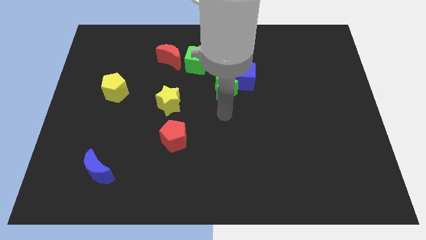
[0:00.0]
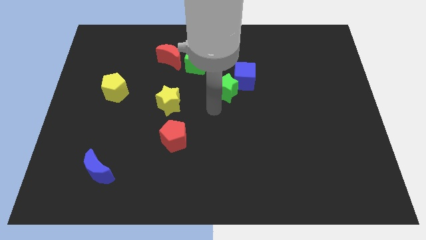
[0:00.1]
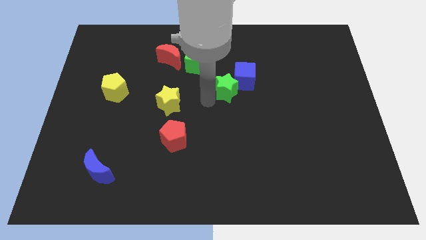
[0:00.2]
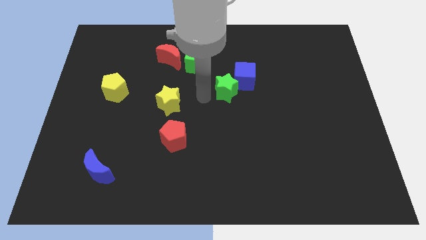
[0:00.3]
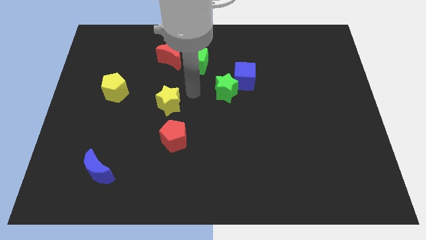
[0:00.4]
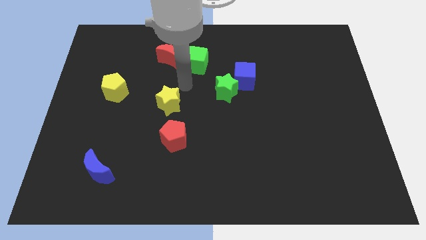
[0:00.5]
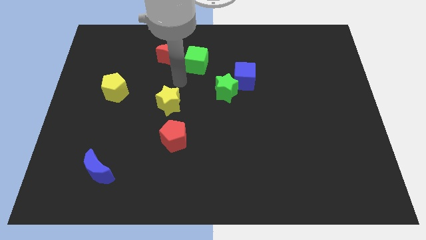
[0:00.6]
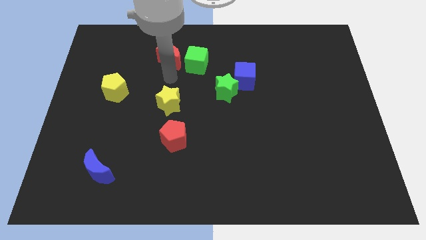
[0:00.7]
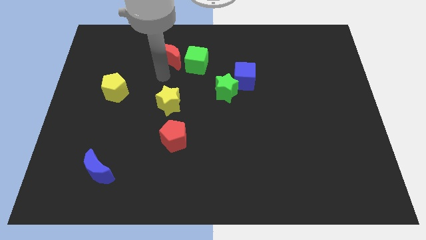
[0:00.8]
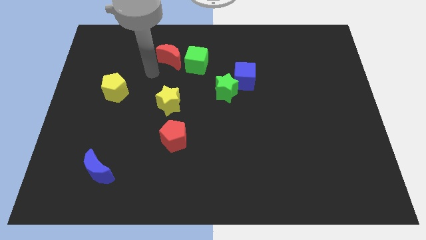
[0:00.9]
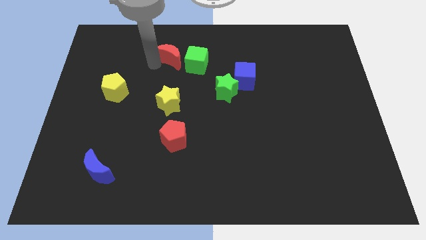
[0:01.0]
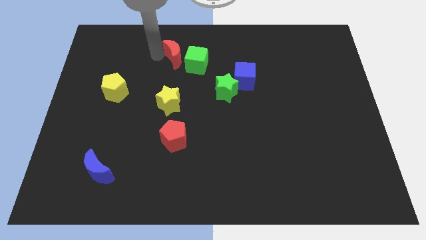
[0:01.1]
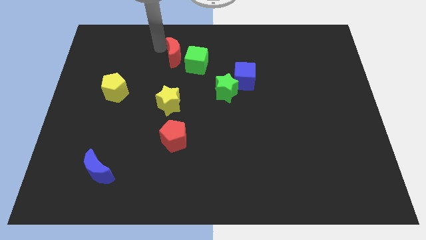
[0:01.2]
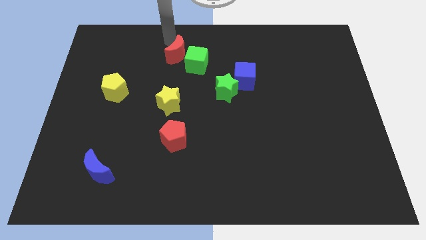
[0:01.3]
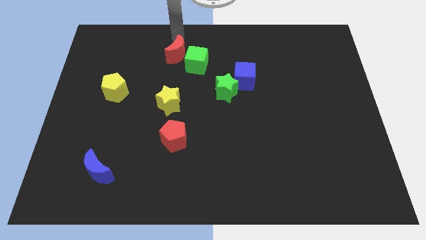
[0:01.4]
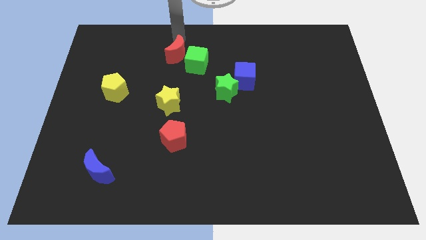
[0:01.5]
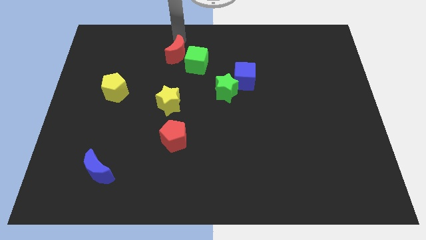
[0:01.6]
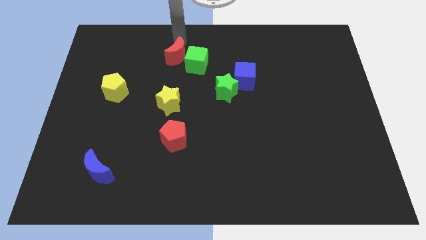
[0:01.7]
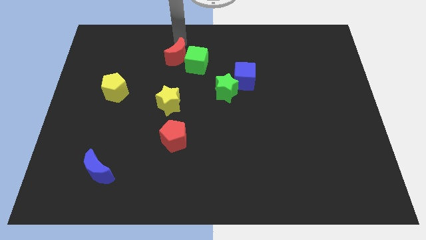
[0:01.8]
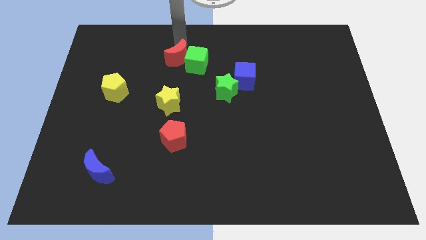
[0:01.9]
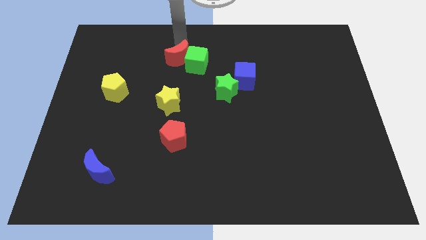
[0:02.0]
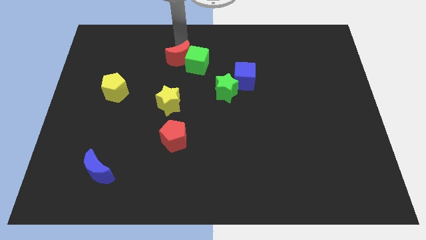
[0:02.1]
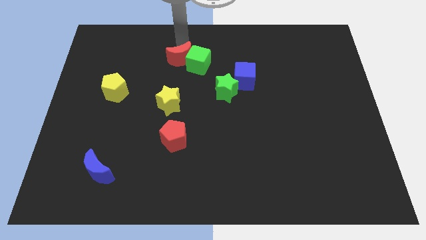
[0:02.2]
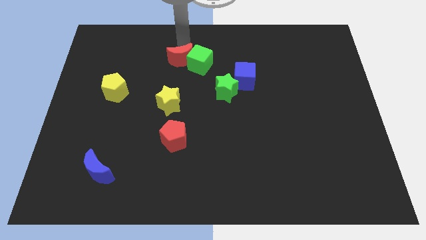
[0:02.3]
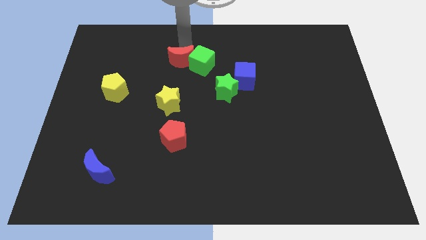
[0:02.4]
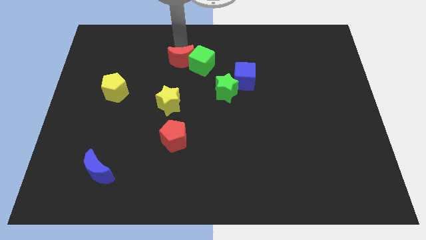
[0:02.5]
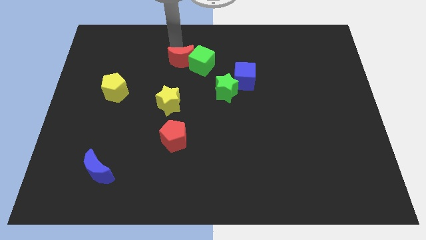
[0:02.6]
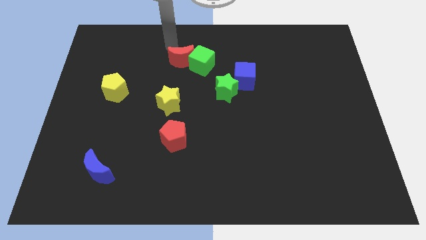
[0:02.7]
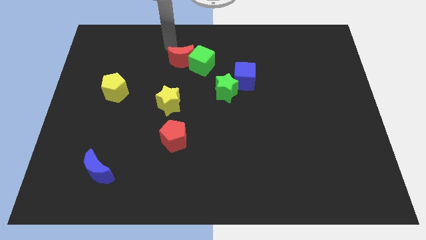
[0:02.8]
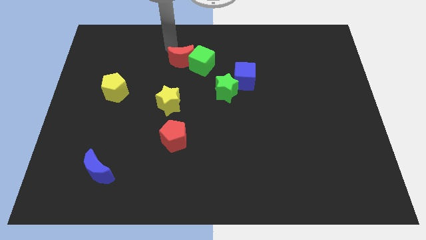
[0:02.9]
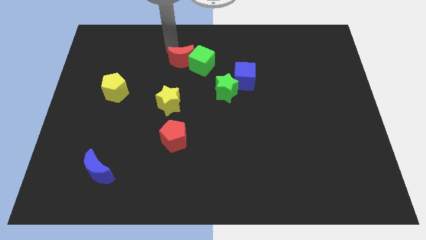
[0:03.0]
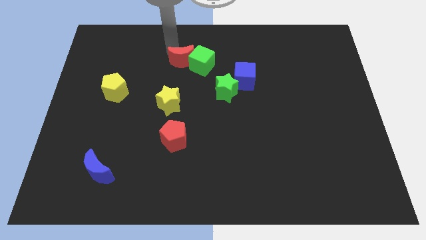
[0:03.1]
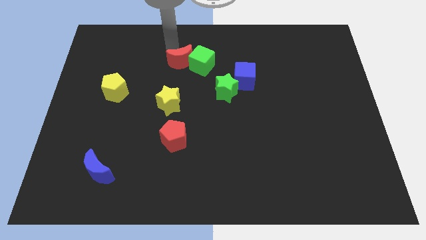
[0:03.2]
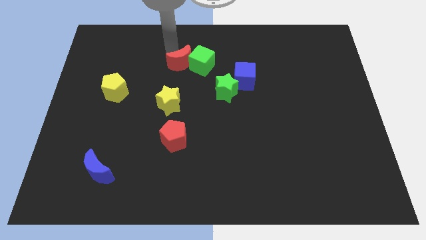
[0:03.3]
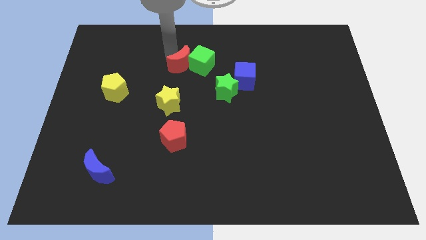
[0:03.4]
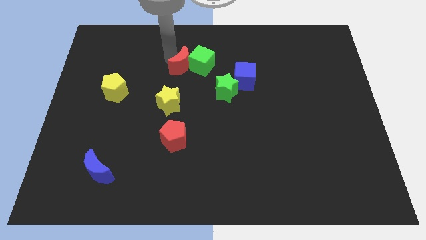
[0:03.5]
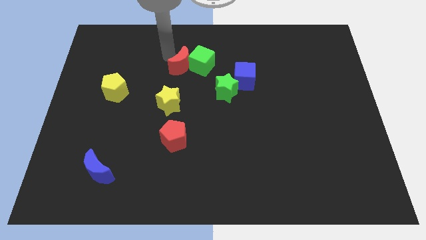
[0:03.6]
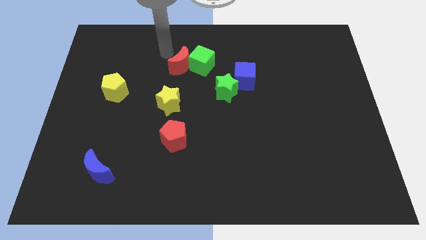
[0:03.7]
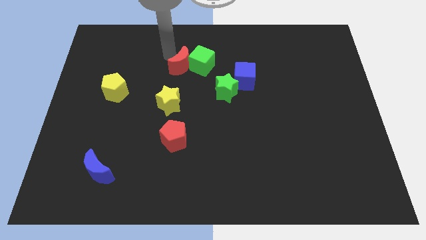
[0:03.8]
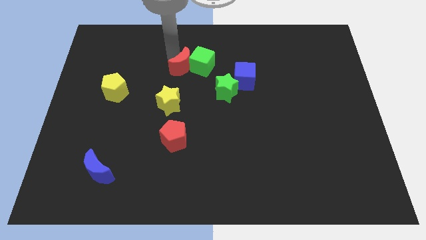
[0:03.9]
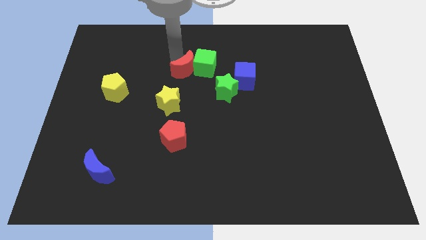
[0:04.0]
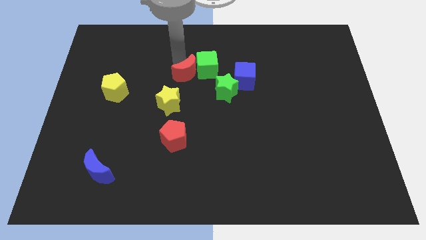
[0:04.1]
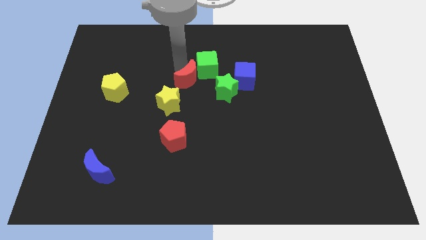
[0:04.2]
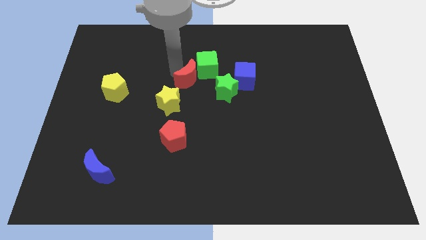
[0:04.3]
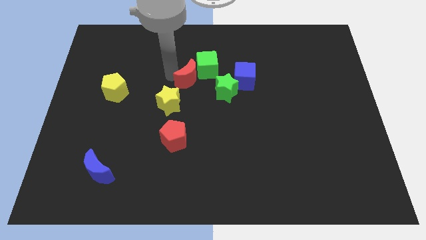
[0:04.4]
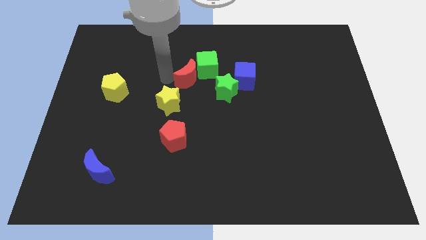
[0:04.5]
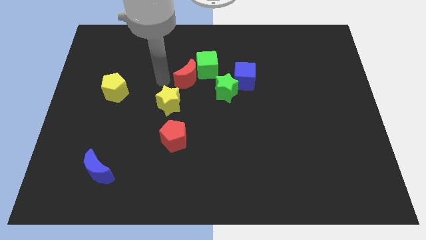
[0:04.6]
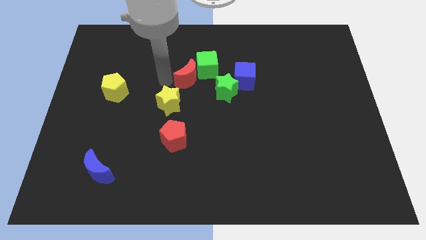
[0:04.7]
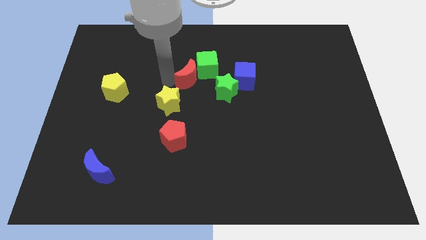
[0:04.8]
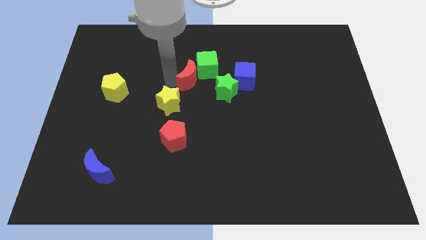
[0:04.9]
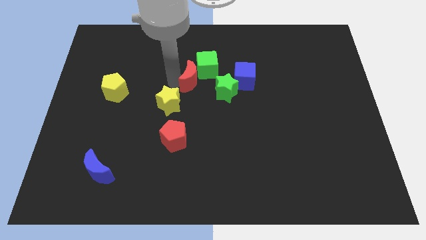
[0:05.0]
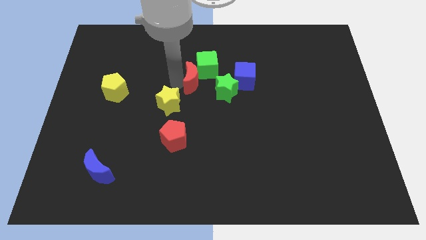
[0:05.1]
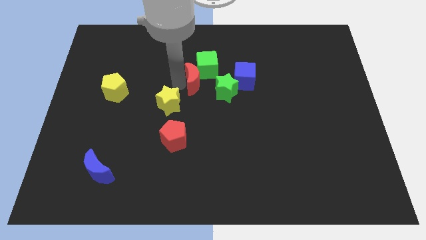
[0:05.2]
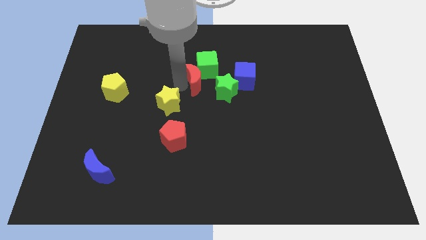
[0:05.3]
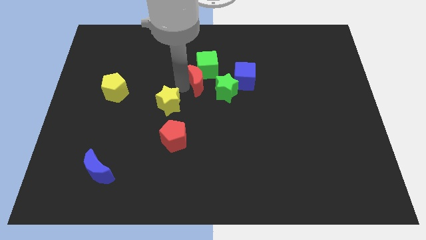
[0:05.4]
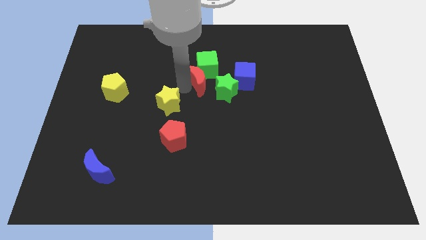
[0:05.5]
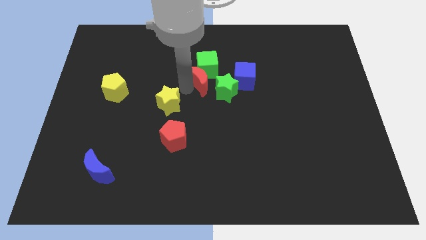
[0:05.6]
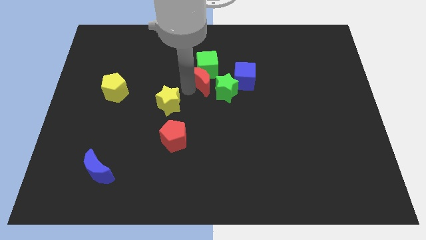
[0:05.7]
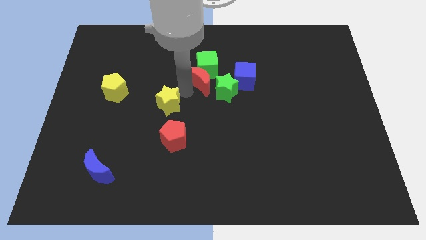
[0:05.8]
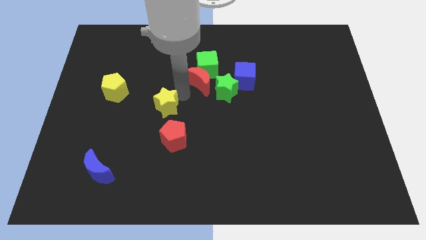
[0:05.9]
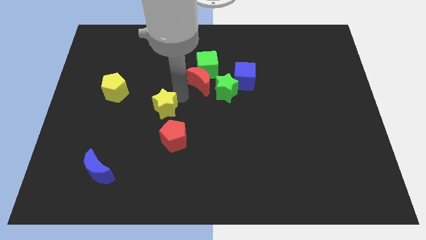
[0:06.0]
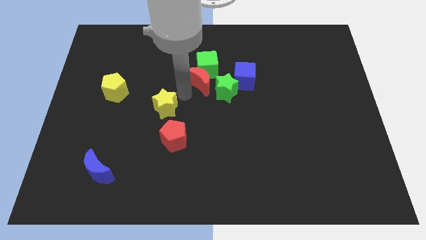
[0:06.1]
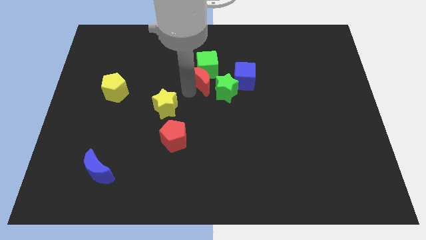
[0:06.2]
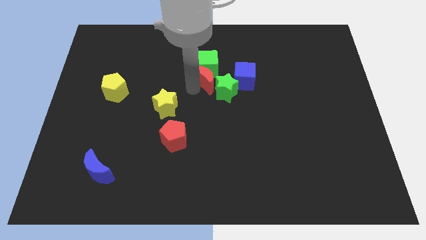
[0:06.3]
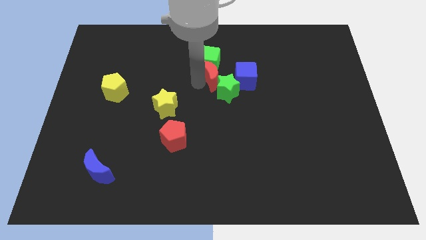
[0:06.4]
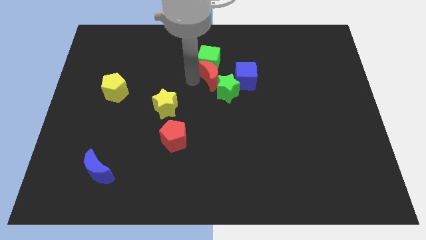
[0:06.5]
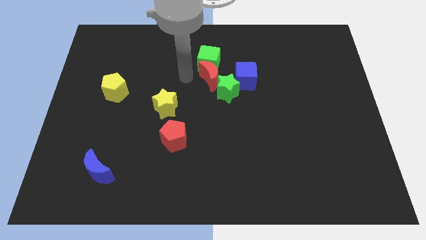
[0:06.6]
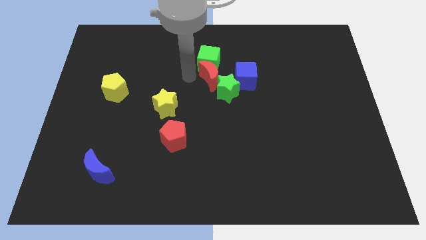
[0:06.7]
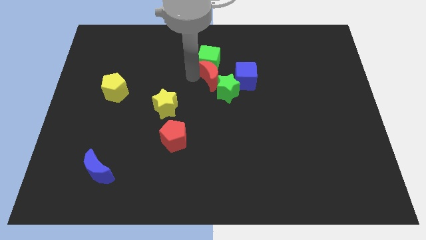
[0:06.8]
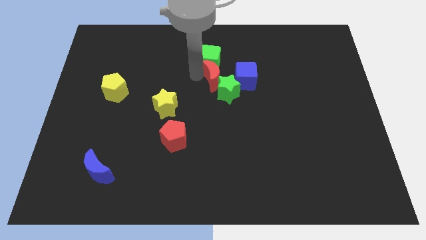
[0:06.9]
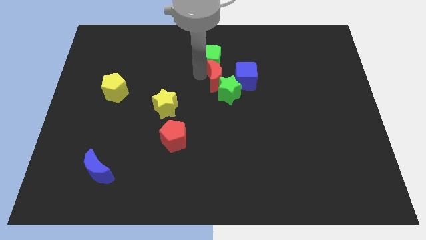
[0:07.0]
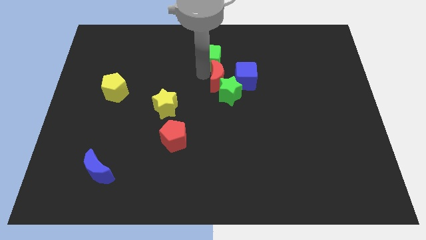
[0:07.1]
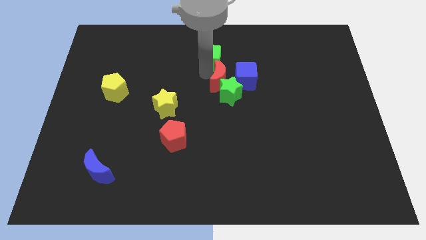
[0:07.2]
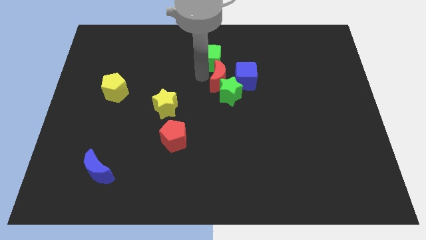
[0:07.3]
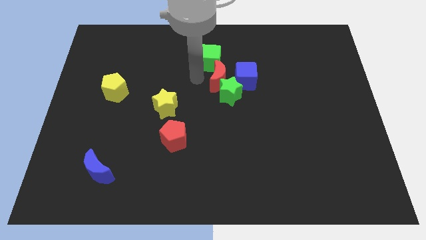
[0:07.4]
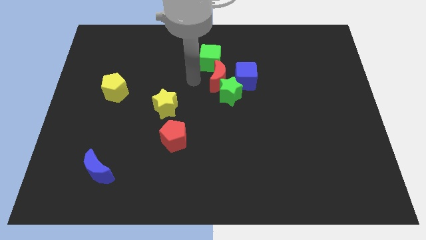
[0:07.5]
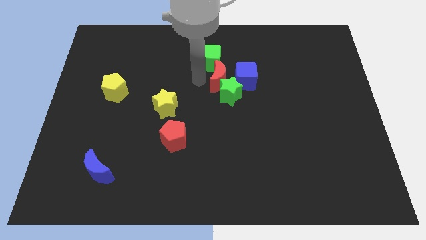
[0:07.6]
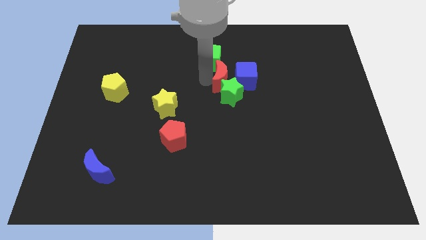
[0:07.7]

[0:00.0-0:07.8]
slide the red moon towards the blue cube

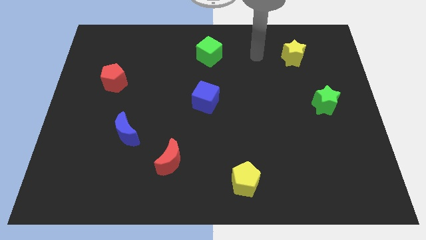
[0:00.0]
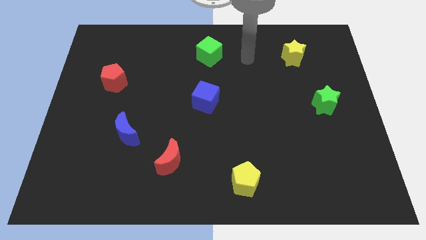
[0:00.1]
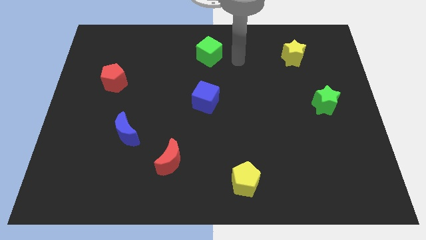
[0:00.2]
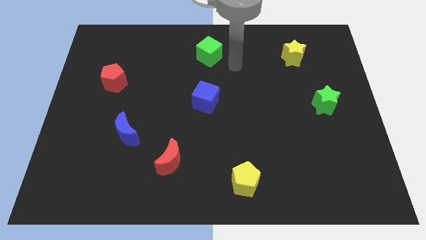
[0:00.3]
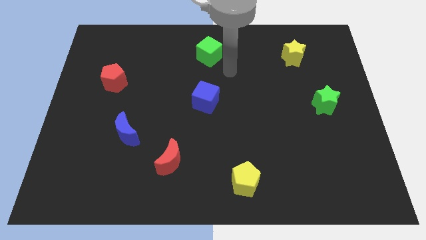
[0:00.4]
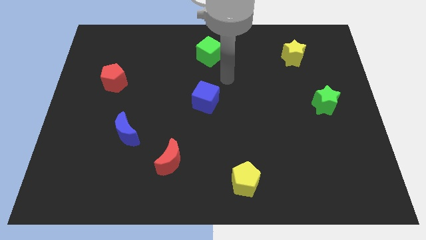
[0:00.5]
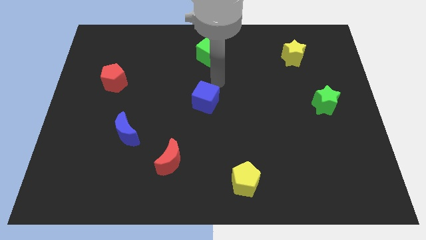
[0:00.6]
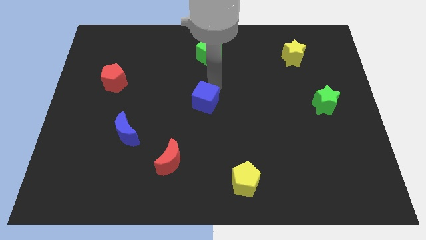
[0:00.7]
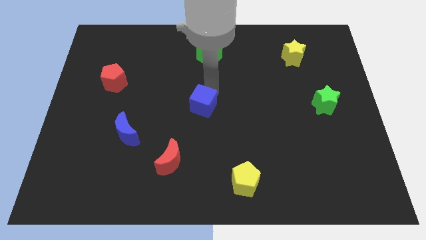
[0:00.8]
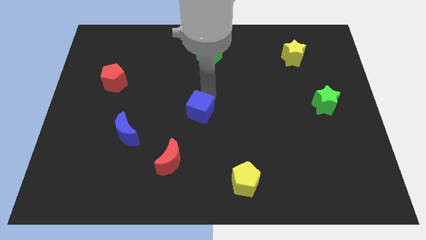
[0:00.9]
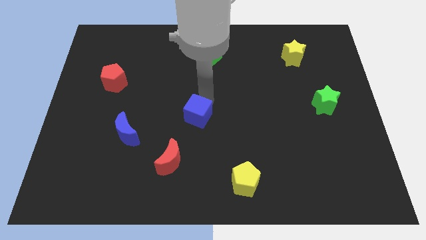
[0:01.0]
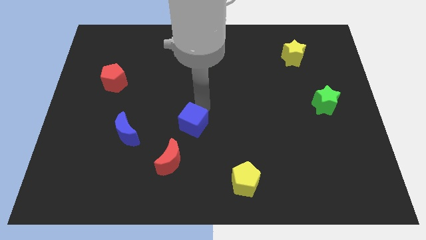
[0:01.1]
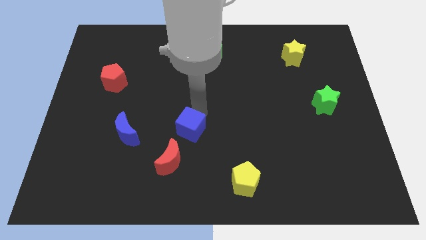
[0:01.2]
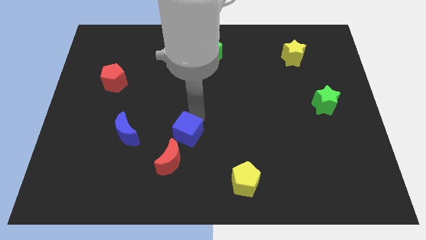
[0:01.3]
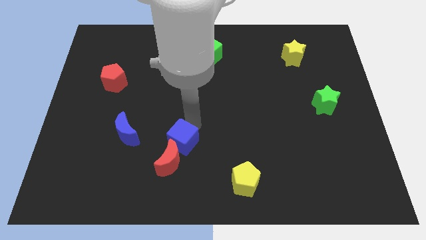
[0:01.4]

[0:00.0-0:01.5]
put the blue cube close to the red moon
